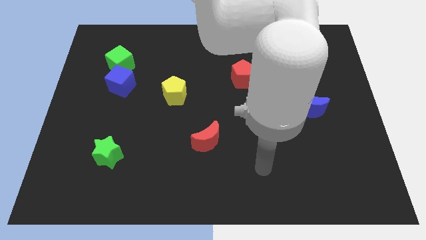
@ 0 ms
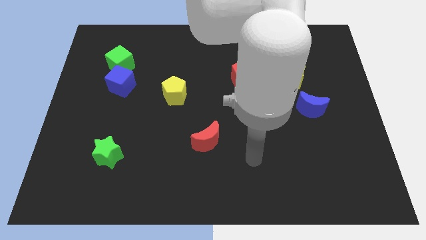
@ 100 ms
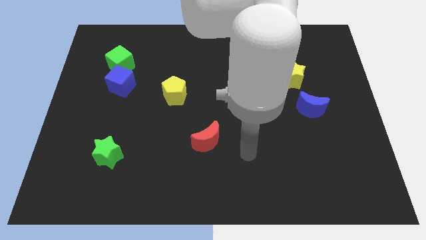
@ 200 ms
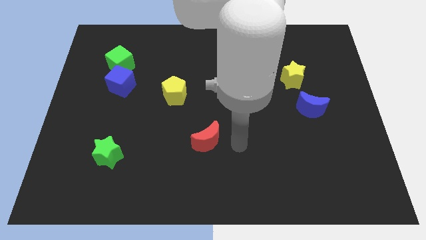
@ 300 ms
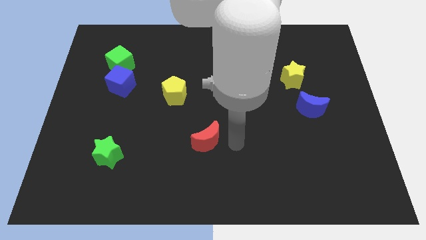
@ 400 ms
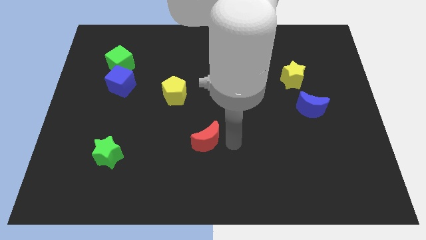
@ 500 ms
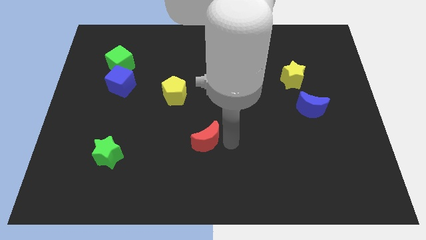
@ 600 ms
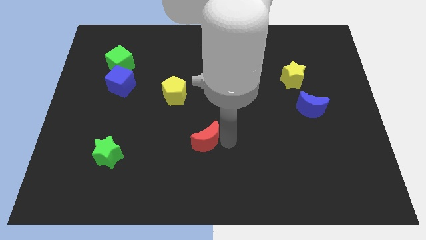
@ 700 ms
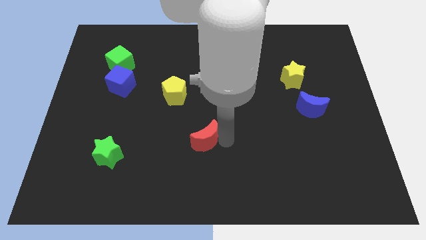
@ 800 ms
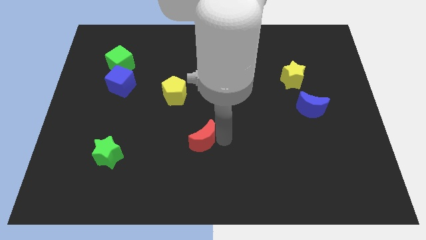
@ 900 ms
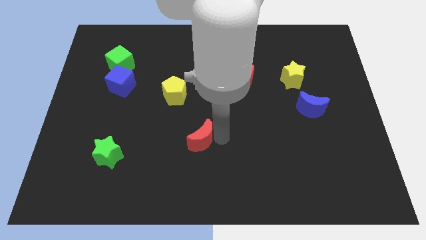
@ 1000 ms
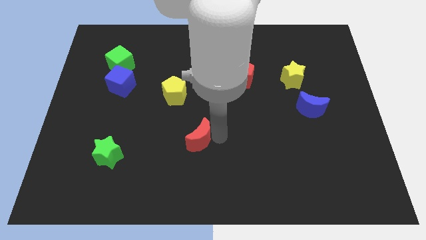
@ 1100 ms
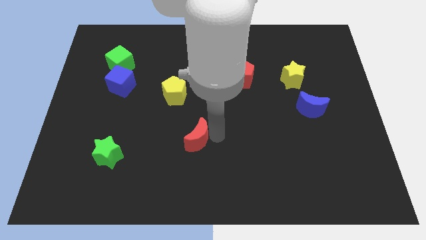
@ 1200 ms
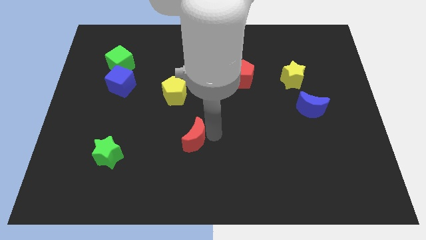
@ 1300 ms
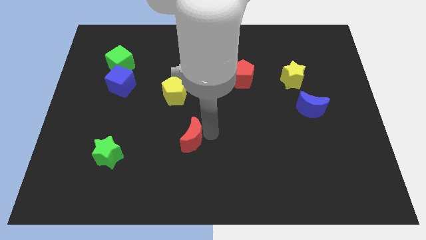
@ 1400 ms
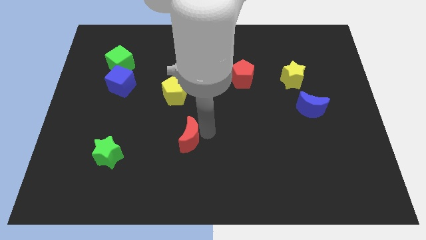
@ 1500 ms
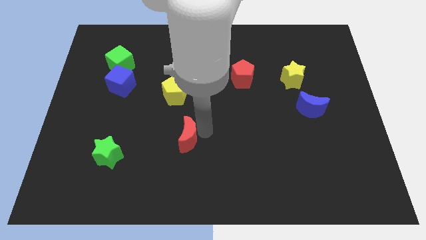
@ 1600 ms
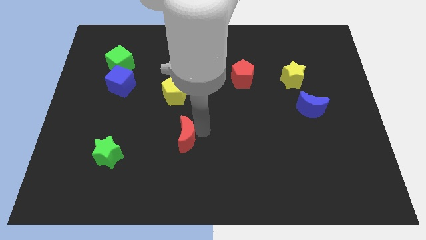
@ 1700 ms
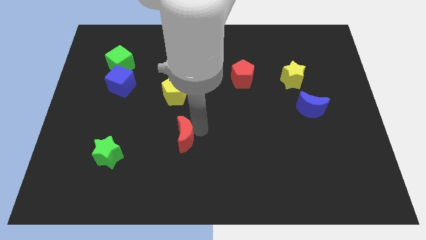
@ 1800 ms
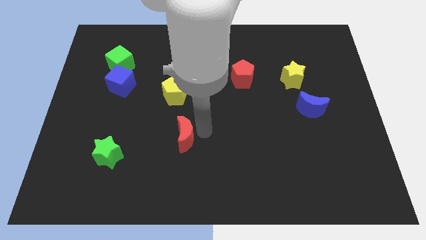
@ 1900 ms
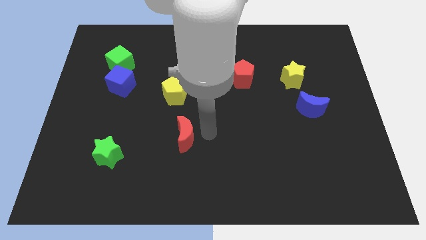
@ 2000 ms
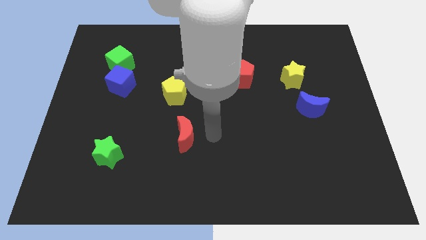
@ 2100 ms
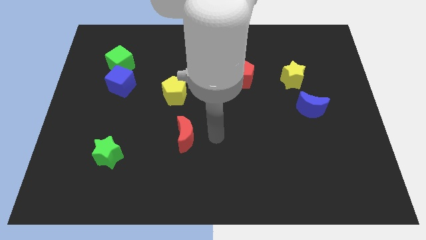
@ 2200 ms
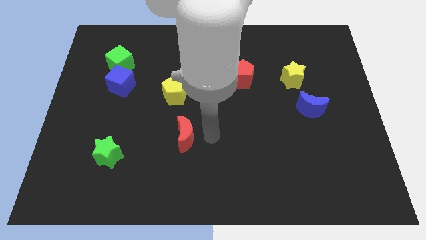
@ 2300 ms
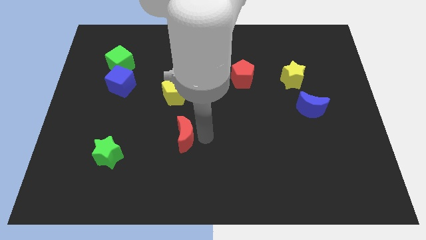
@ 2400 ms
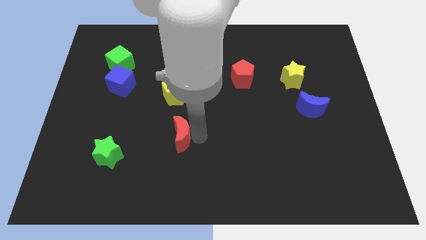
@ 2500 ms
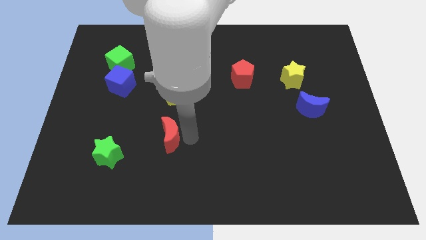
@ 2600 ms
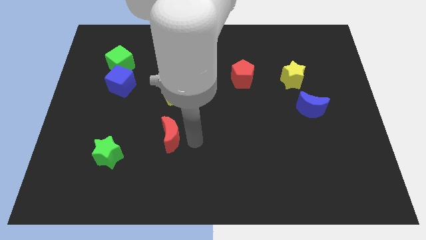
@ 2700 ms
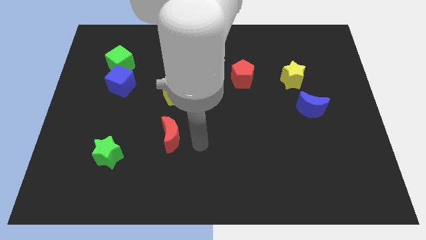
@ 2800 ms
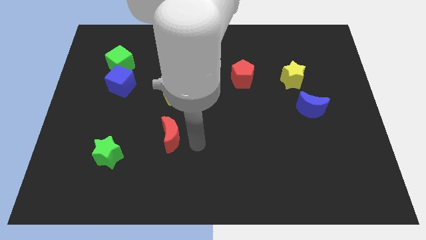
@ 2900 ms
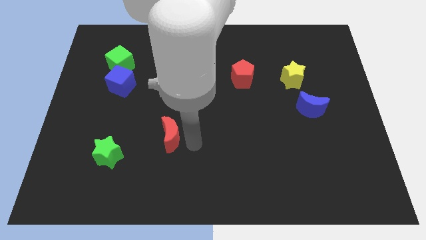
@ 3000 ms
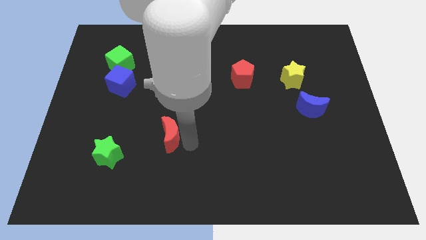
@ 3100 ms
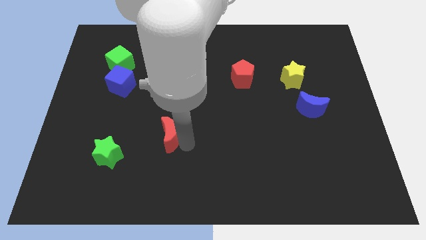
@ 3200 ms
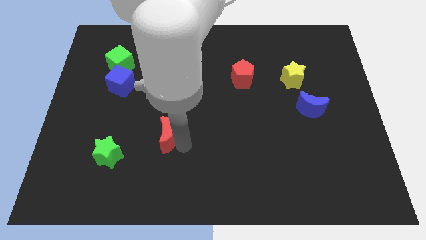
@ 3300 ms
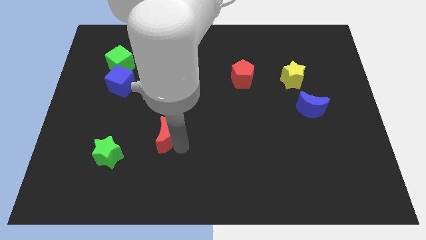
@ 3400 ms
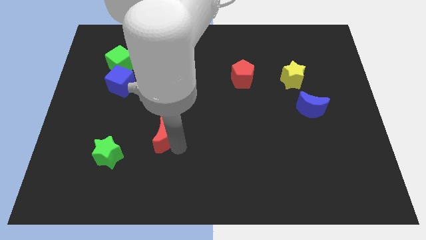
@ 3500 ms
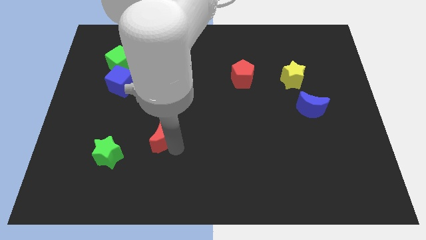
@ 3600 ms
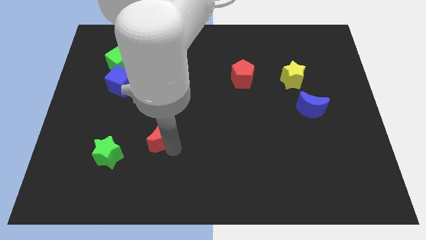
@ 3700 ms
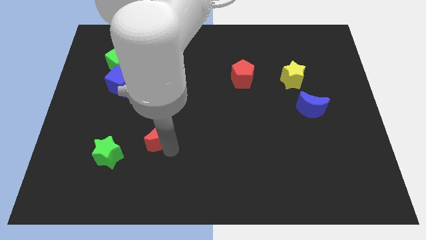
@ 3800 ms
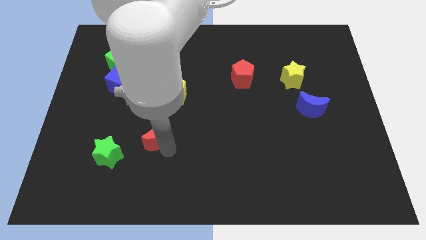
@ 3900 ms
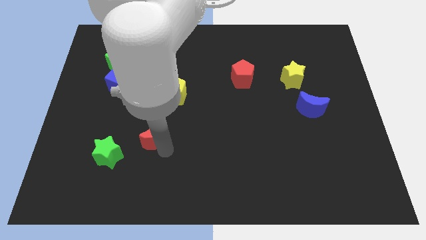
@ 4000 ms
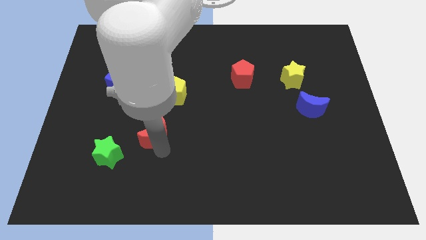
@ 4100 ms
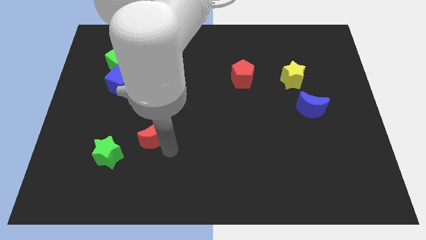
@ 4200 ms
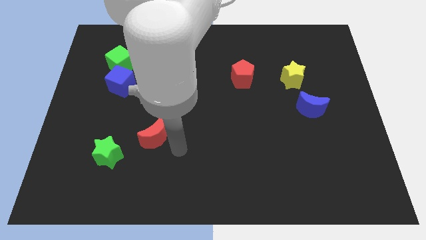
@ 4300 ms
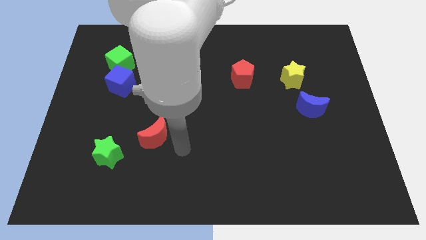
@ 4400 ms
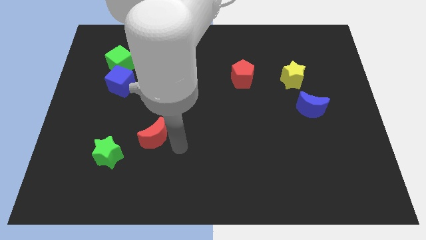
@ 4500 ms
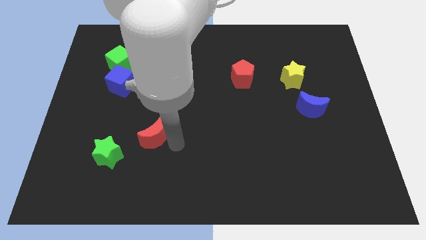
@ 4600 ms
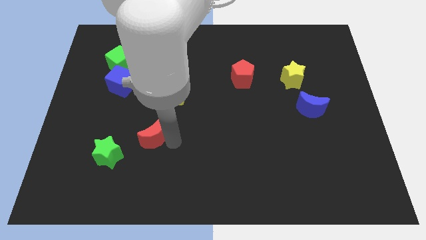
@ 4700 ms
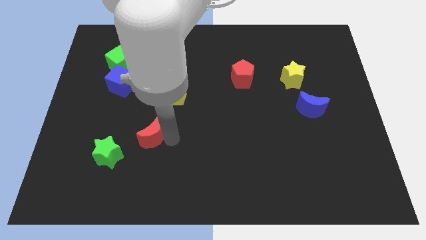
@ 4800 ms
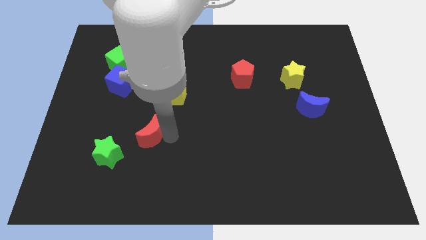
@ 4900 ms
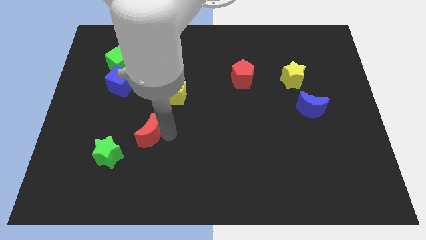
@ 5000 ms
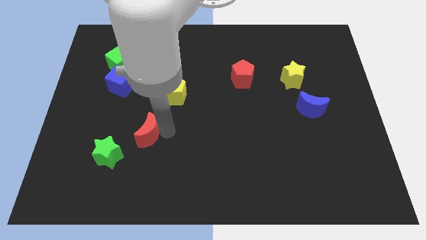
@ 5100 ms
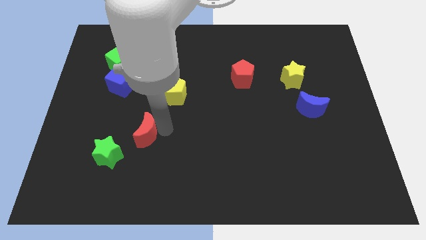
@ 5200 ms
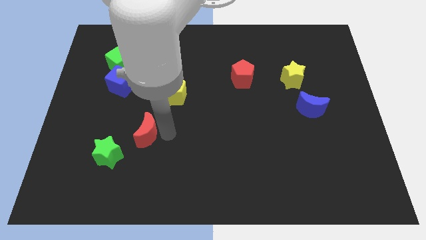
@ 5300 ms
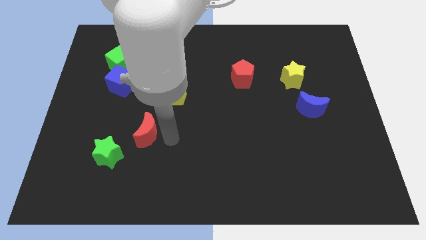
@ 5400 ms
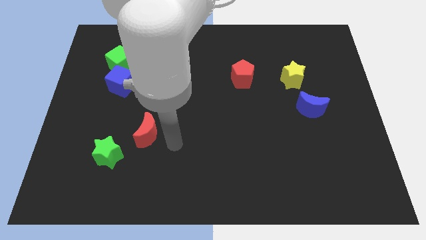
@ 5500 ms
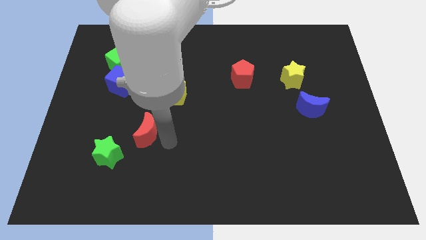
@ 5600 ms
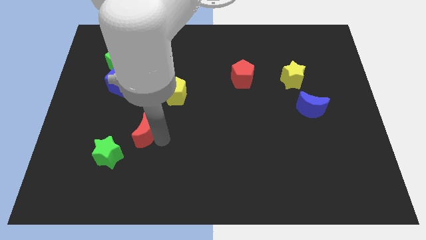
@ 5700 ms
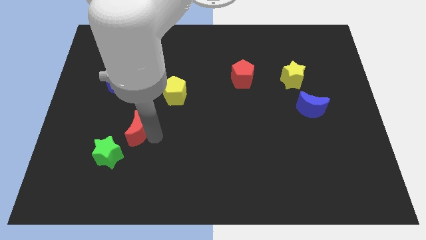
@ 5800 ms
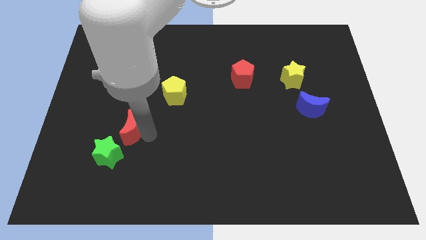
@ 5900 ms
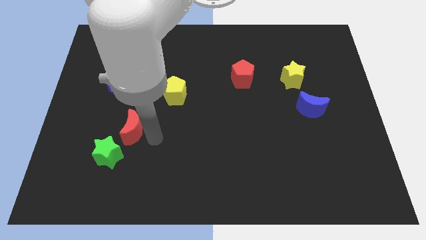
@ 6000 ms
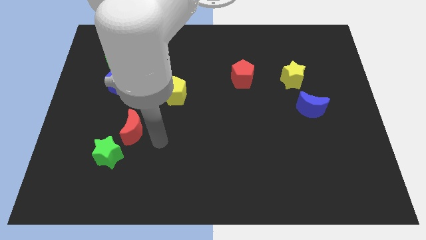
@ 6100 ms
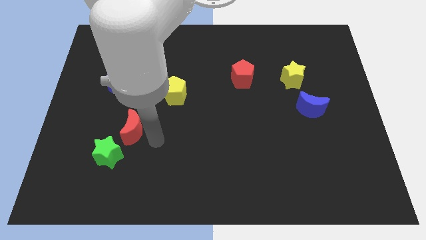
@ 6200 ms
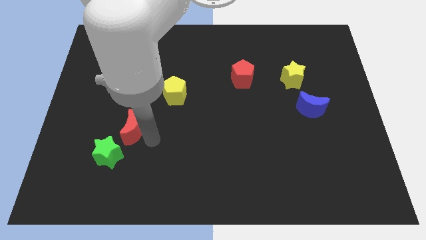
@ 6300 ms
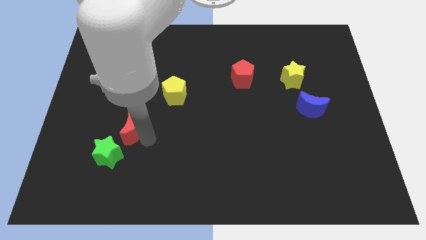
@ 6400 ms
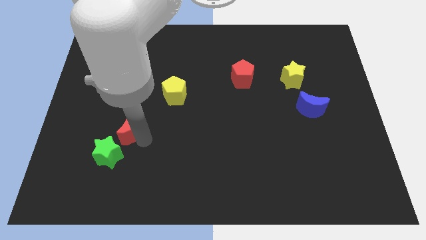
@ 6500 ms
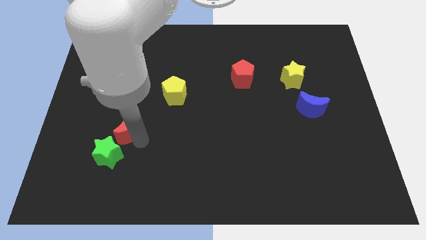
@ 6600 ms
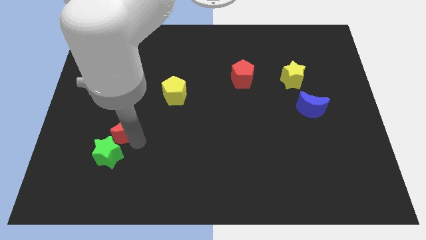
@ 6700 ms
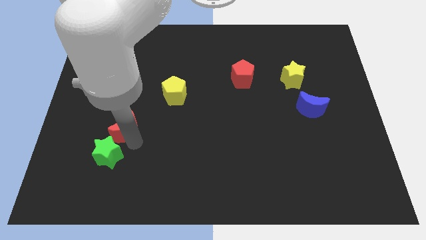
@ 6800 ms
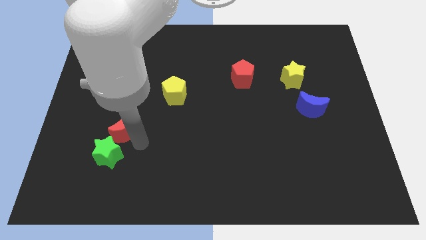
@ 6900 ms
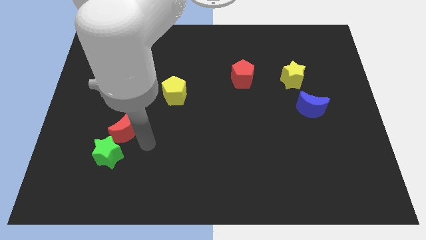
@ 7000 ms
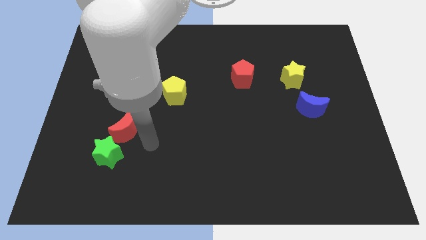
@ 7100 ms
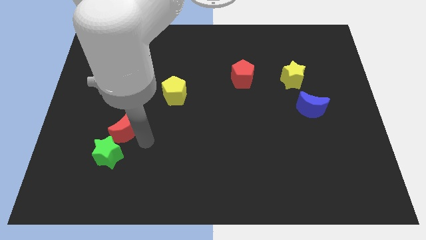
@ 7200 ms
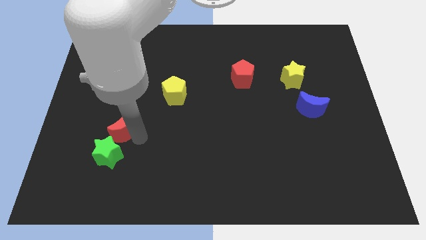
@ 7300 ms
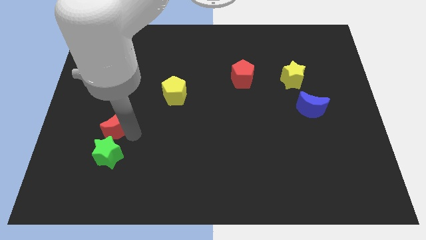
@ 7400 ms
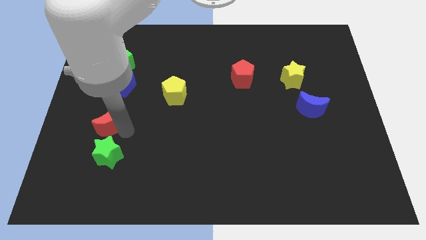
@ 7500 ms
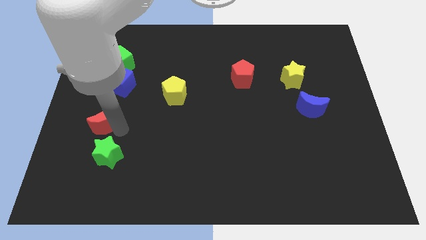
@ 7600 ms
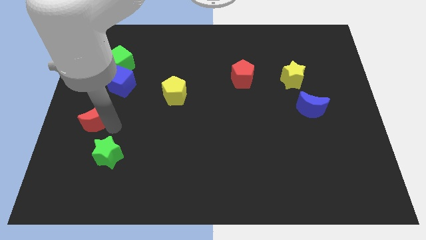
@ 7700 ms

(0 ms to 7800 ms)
slide the red moon to the left side
